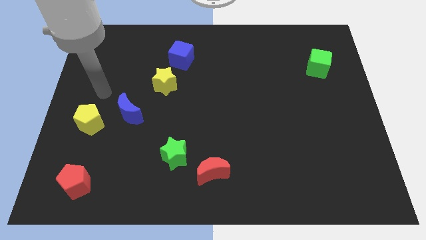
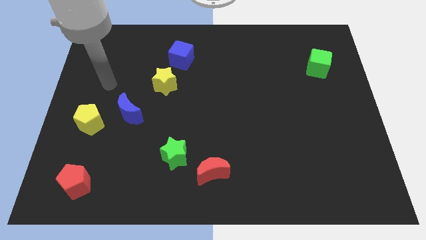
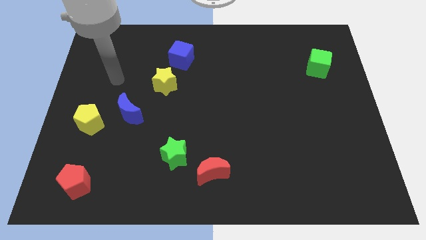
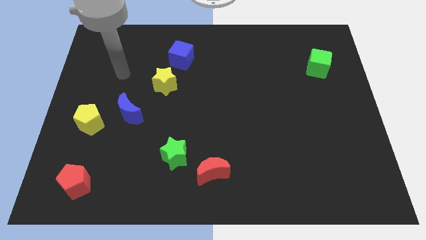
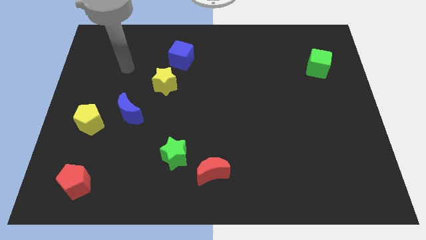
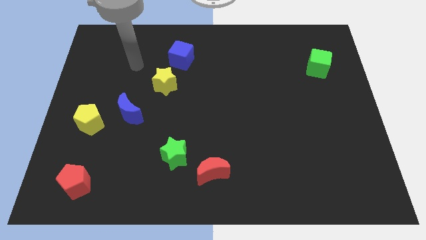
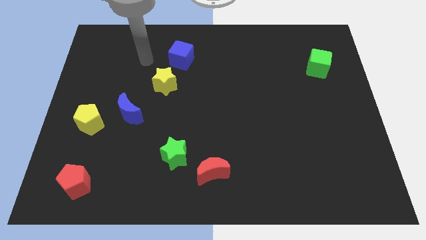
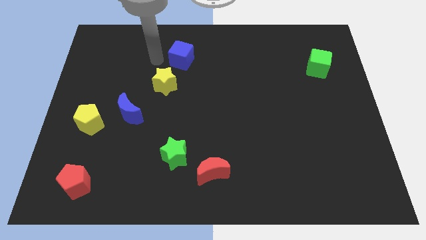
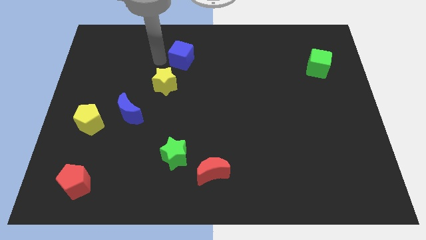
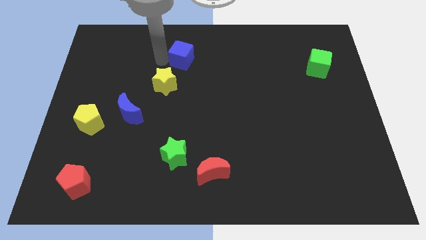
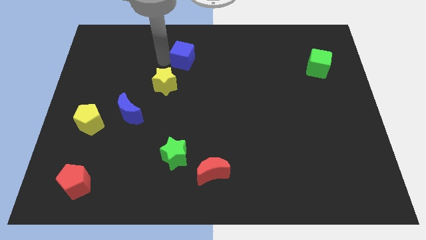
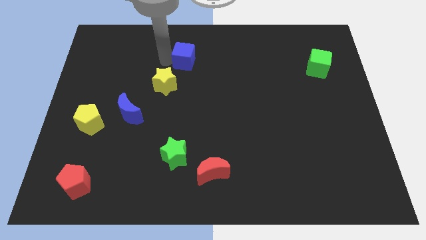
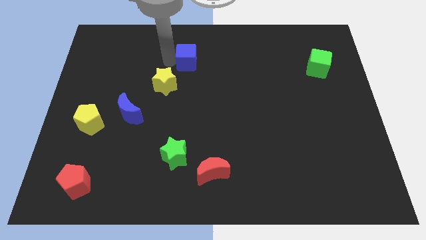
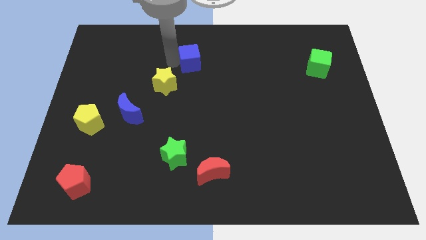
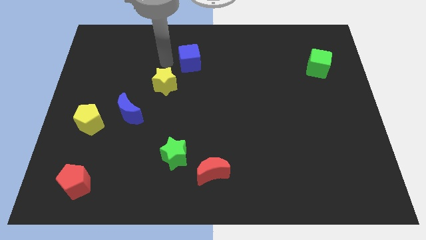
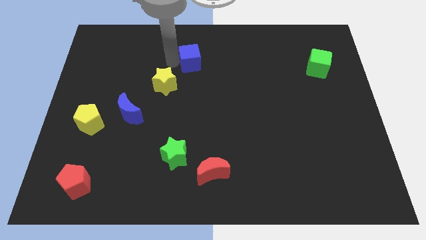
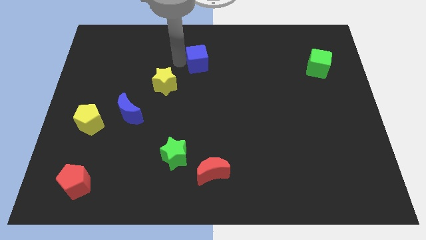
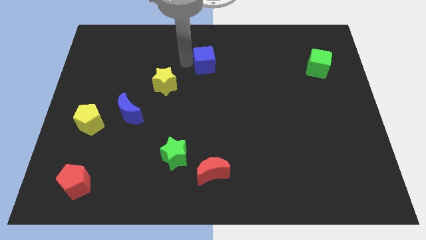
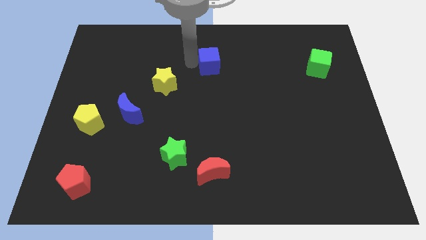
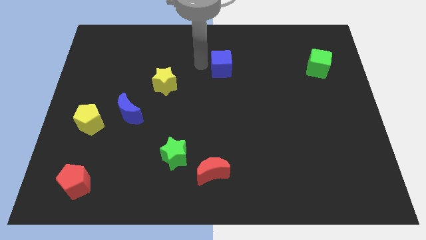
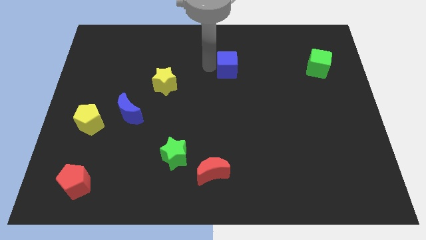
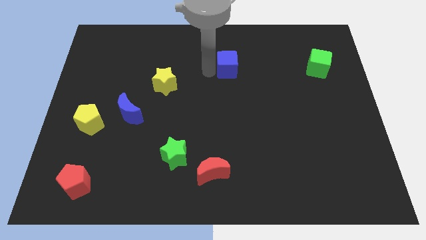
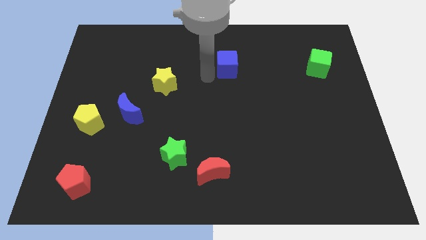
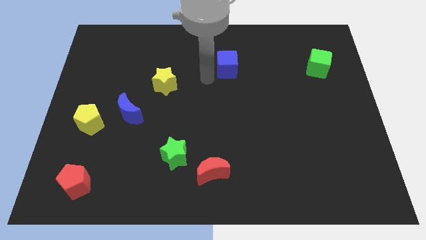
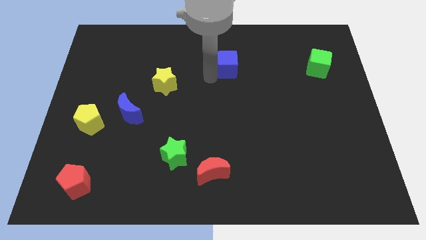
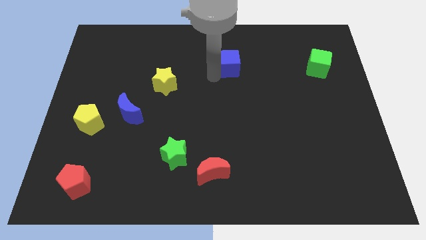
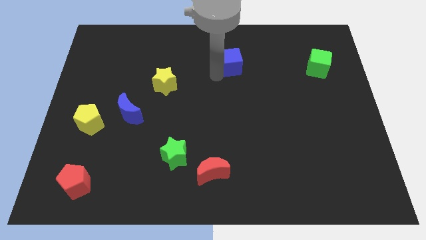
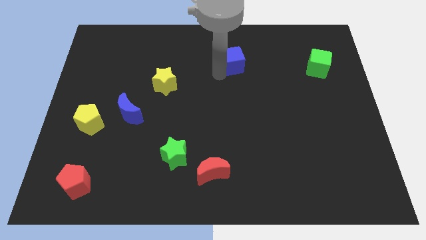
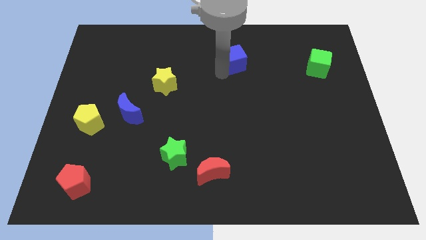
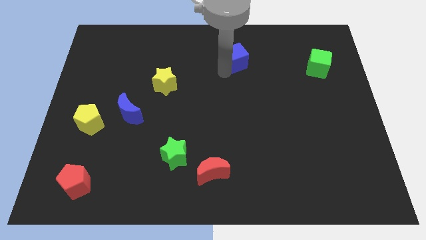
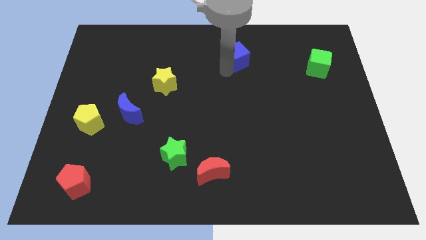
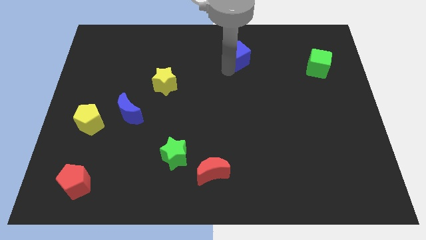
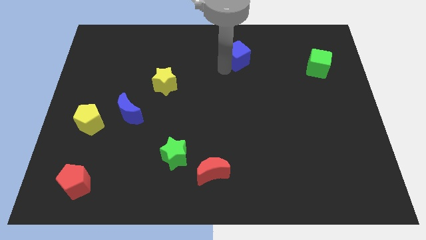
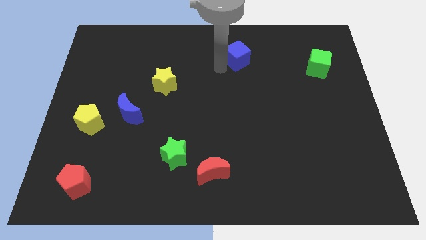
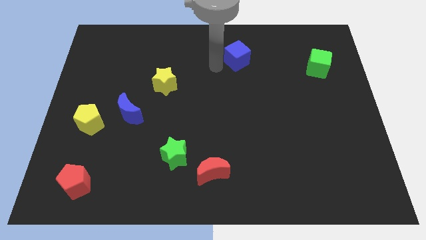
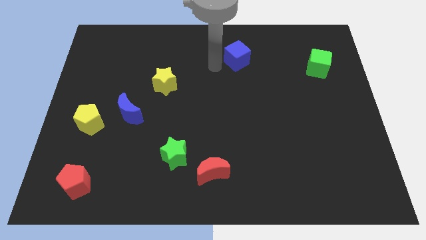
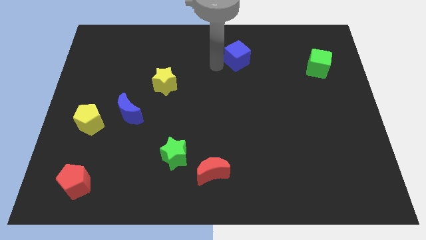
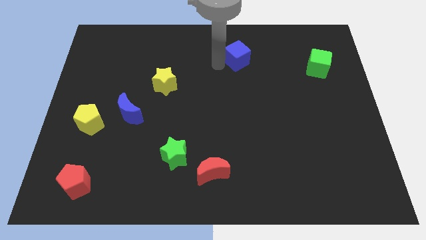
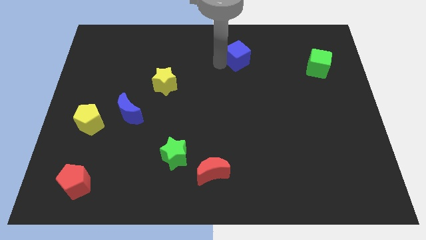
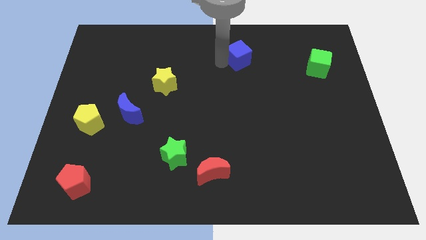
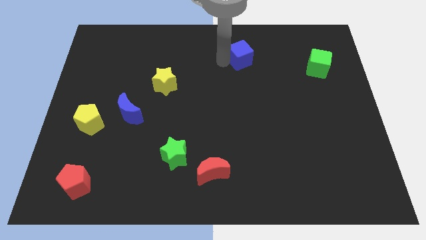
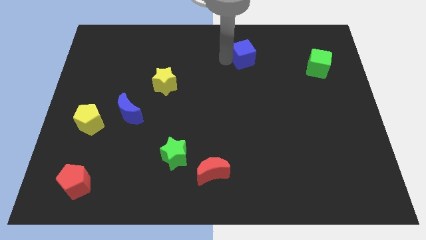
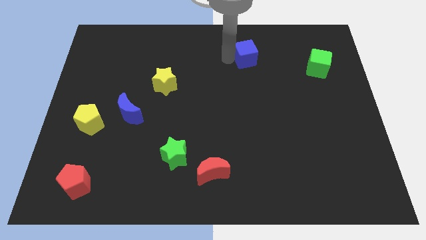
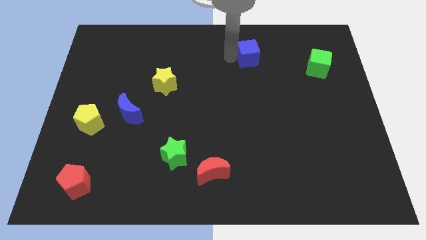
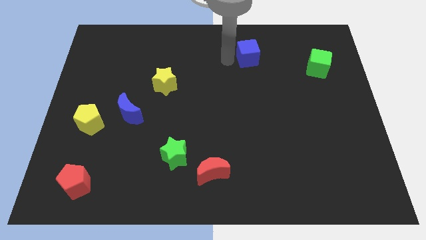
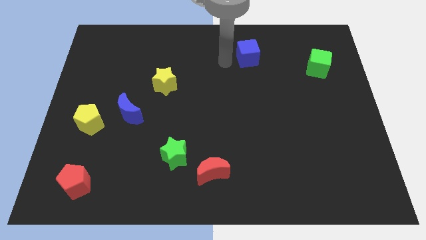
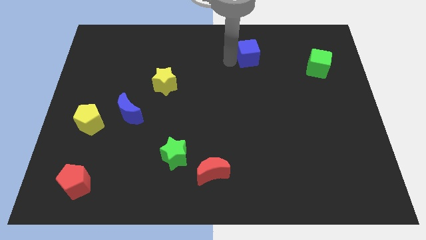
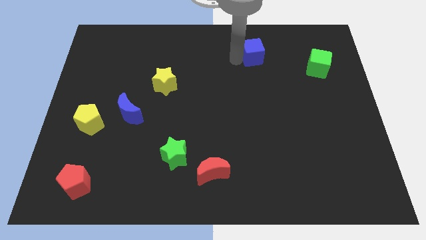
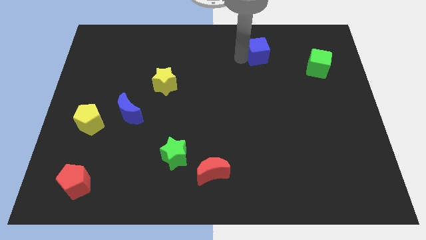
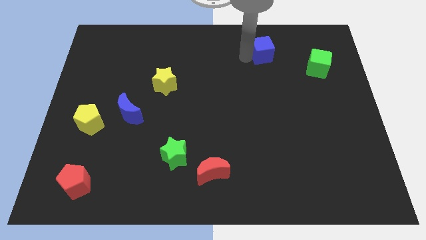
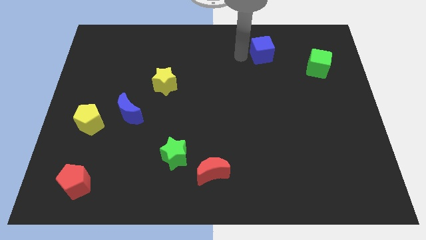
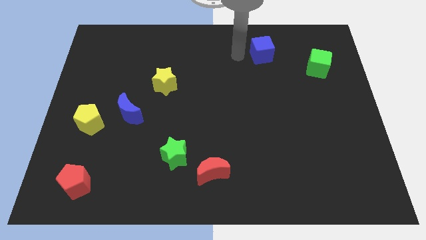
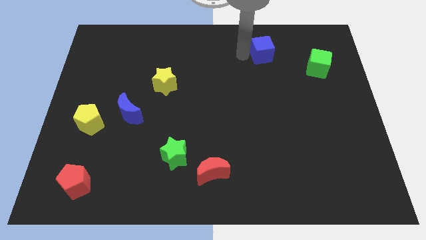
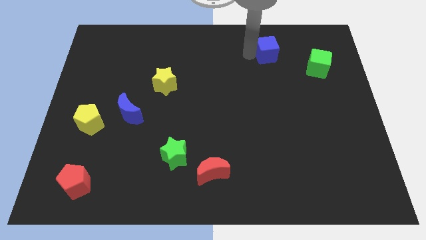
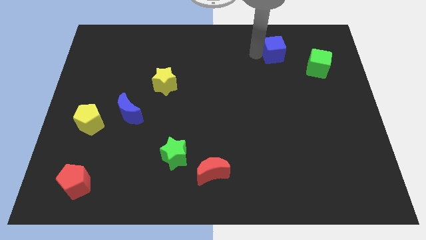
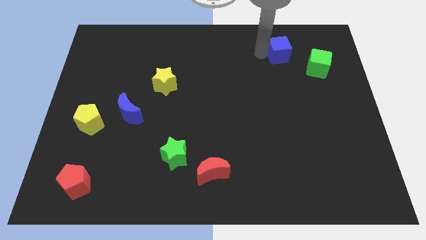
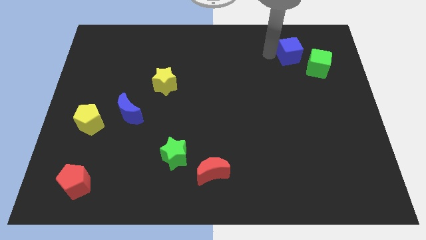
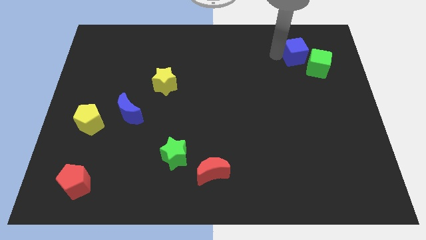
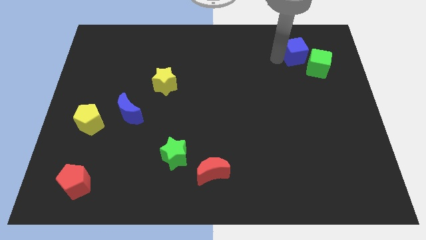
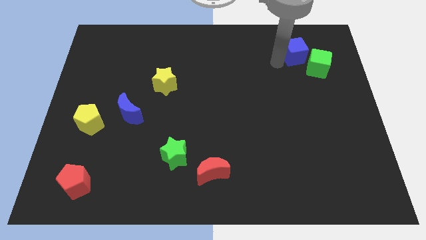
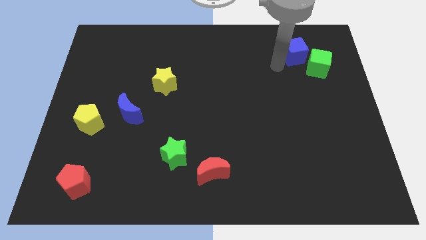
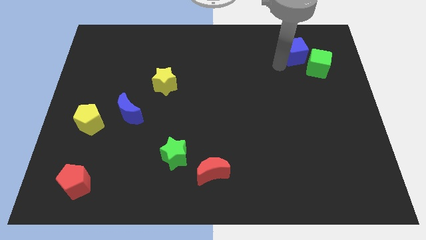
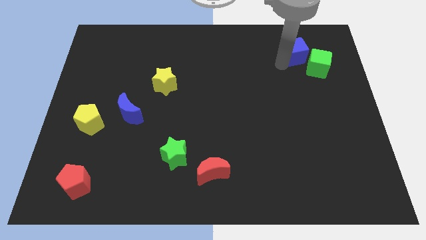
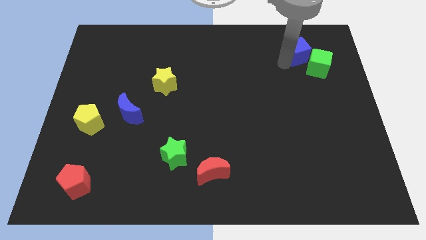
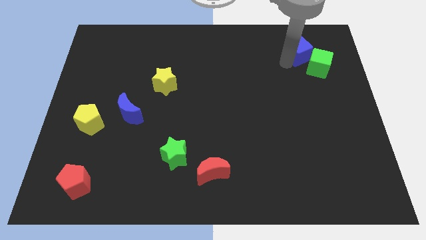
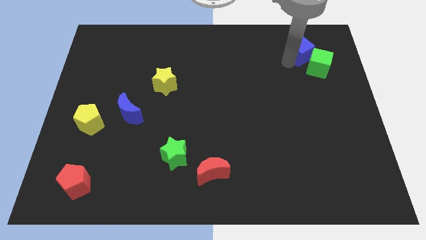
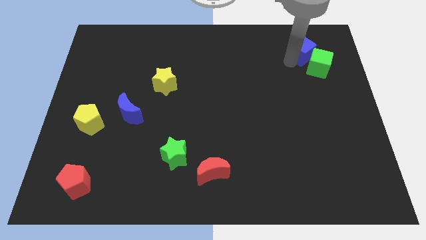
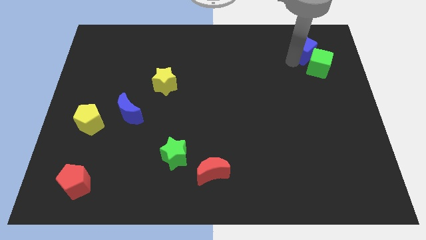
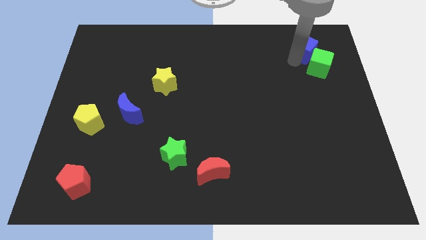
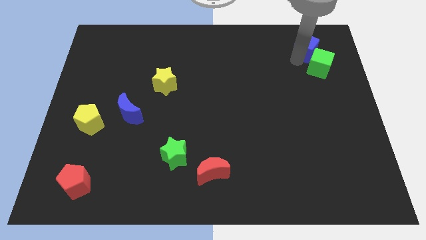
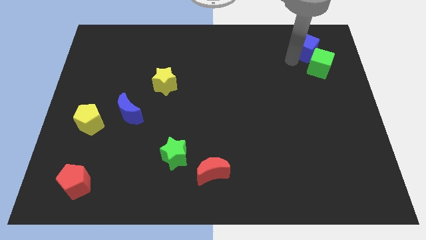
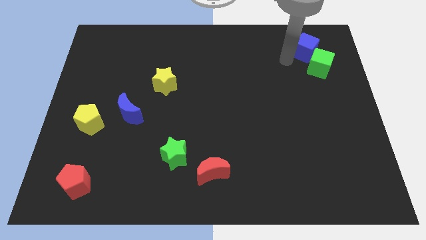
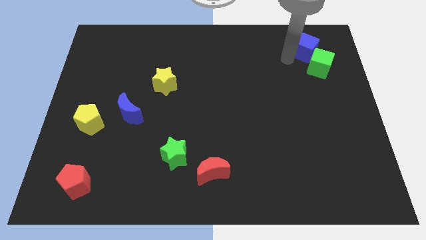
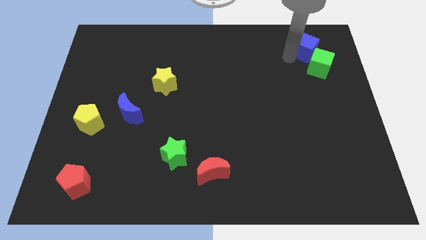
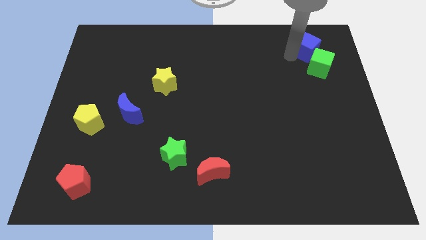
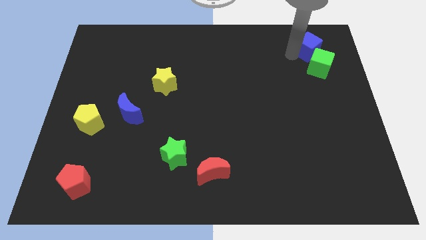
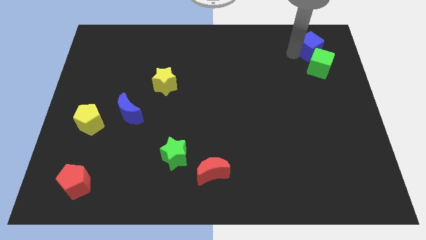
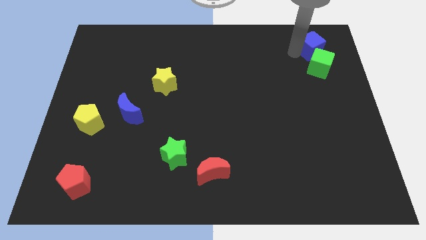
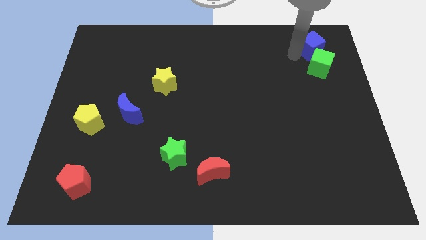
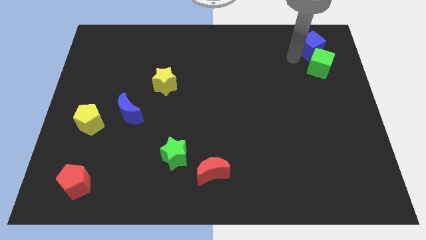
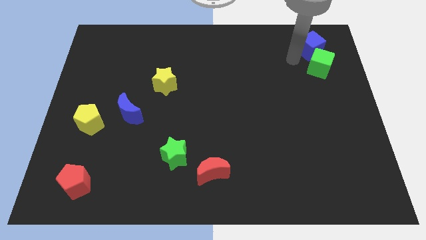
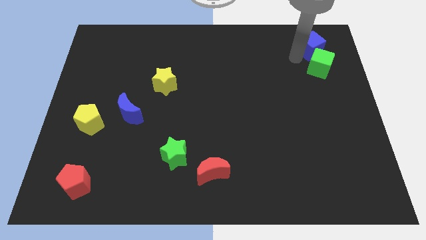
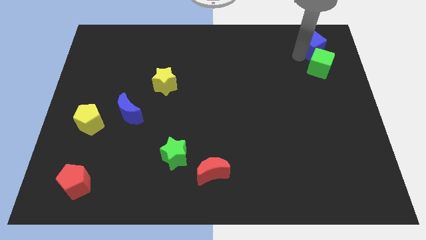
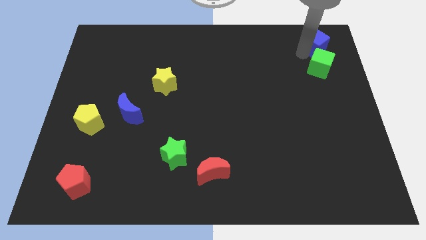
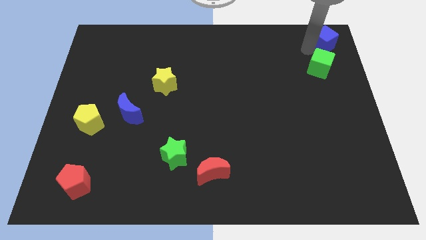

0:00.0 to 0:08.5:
push the blue cube to the upper right corner
